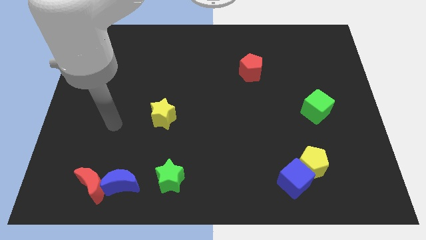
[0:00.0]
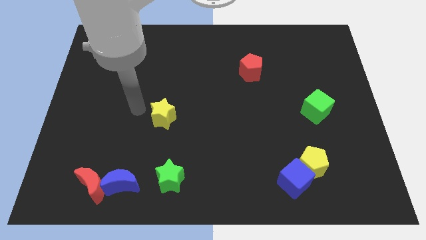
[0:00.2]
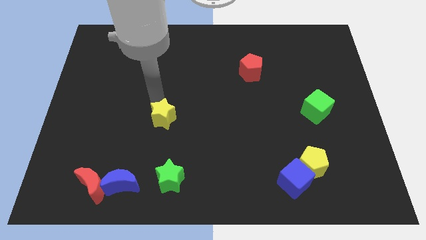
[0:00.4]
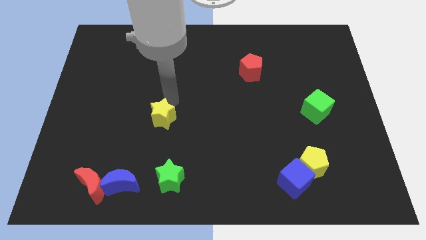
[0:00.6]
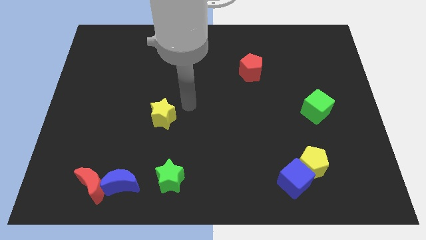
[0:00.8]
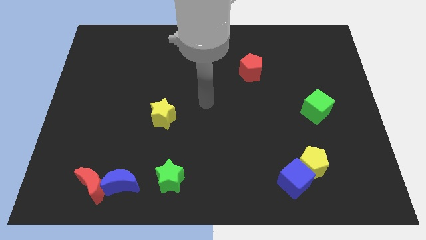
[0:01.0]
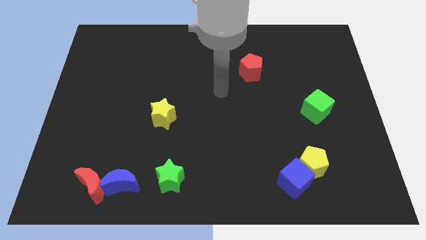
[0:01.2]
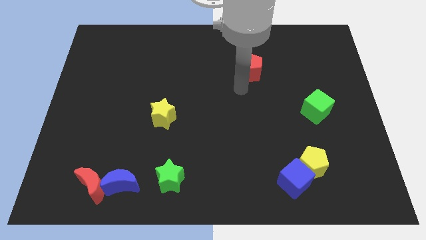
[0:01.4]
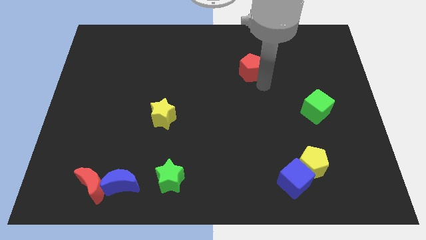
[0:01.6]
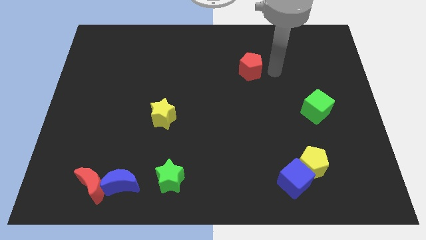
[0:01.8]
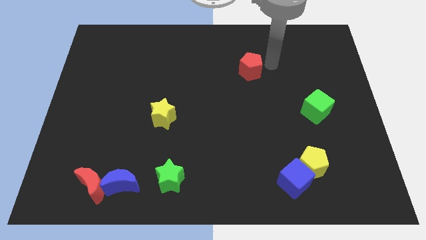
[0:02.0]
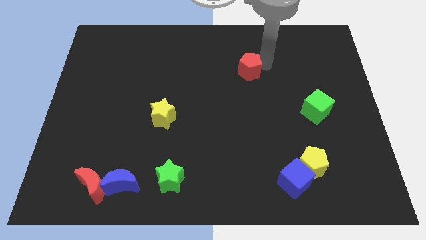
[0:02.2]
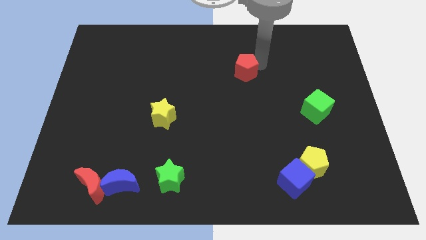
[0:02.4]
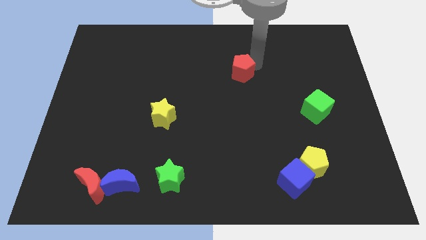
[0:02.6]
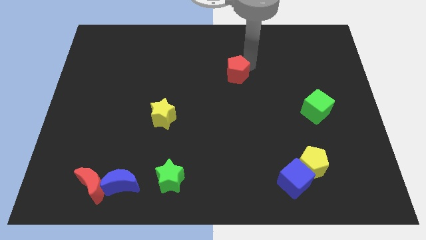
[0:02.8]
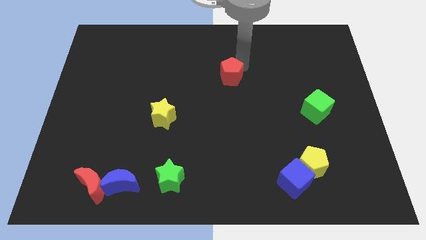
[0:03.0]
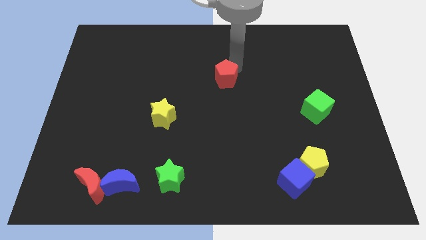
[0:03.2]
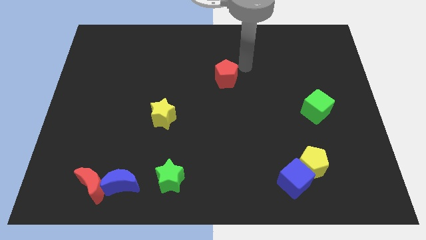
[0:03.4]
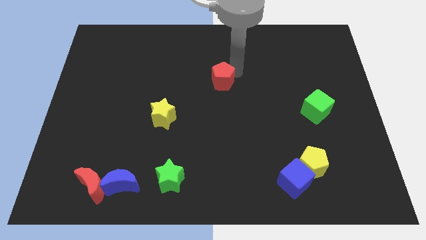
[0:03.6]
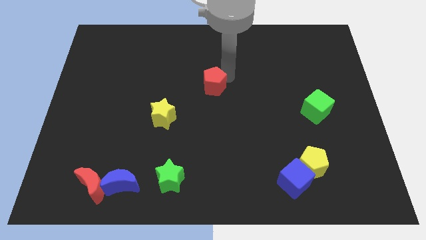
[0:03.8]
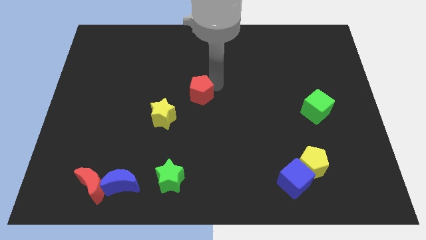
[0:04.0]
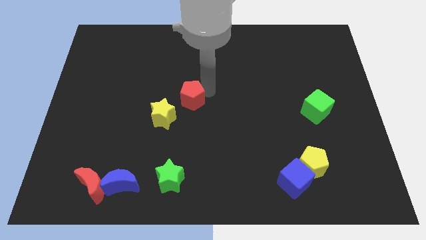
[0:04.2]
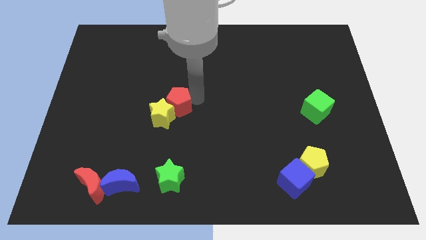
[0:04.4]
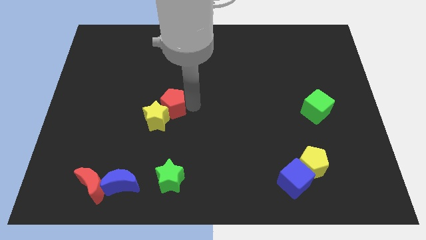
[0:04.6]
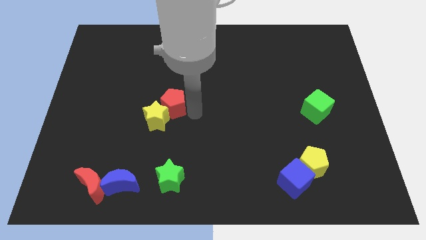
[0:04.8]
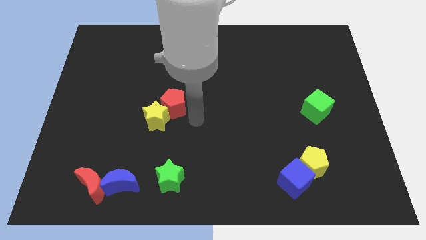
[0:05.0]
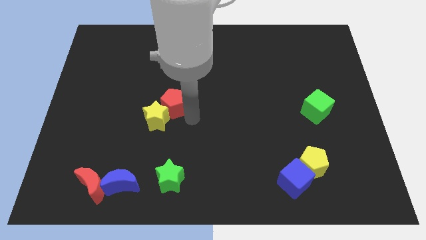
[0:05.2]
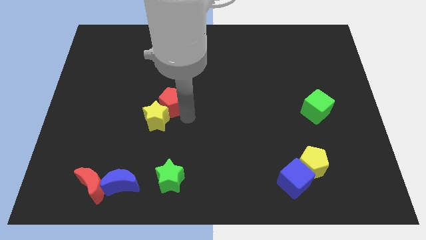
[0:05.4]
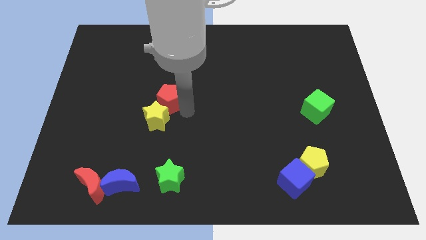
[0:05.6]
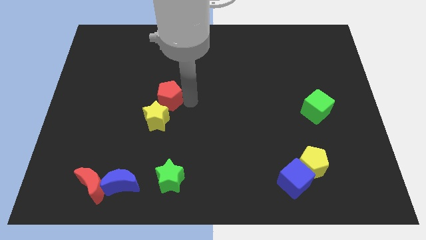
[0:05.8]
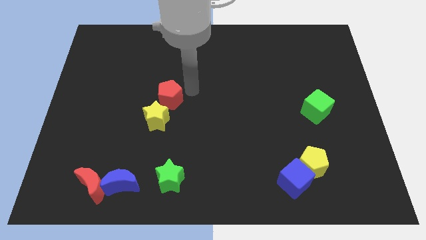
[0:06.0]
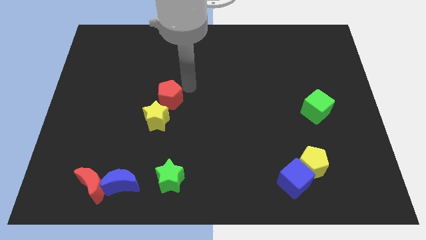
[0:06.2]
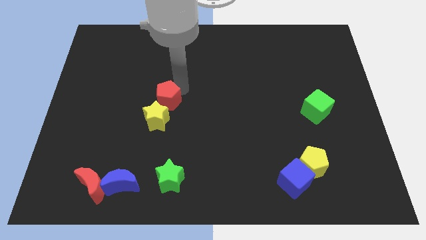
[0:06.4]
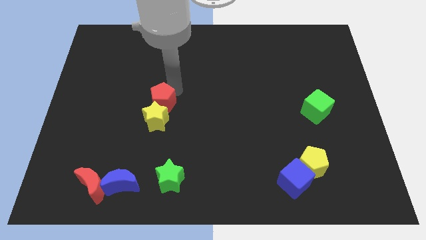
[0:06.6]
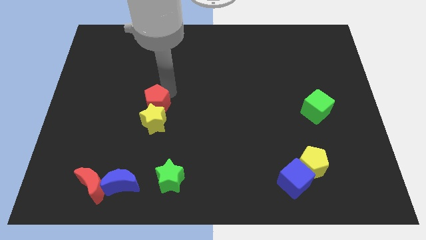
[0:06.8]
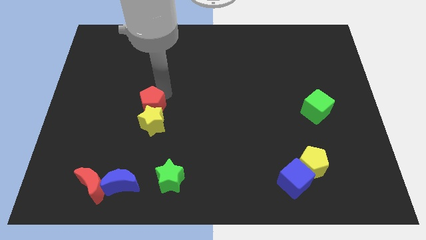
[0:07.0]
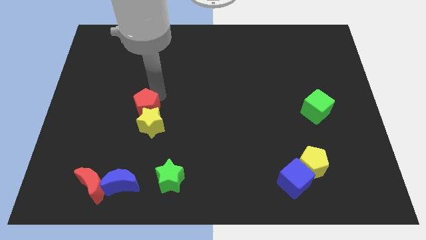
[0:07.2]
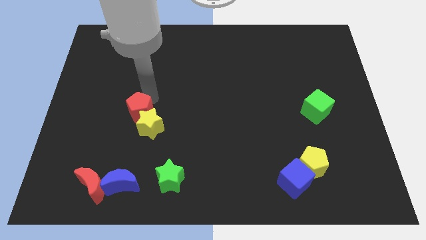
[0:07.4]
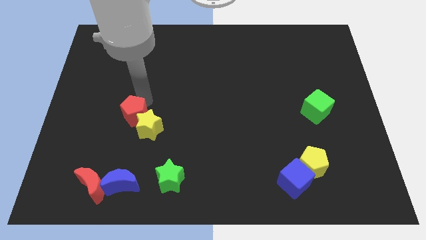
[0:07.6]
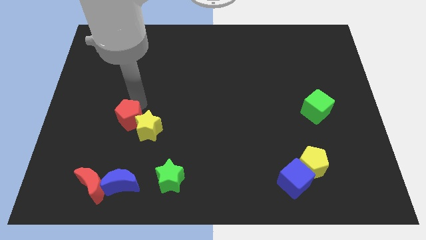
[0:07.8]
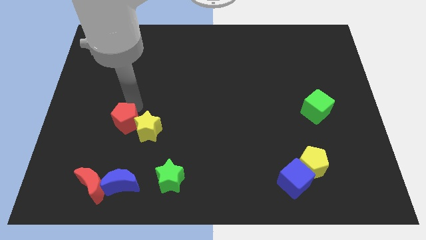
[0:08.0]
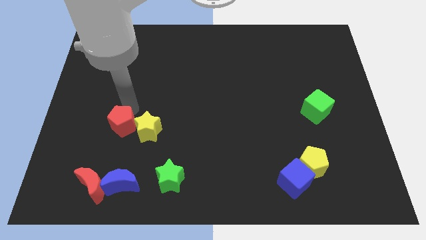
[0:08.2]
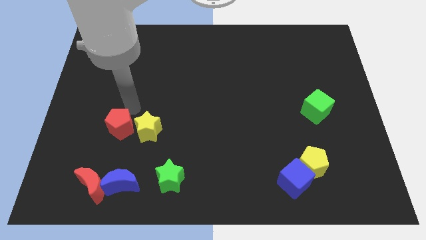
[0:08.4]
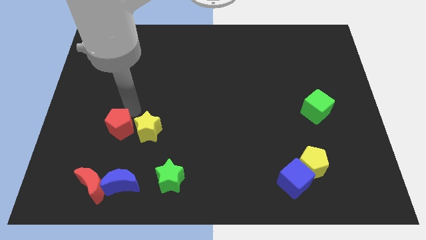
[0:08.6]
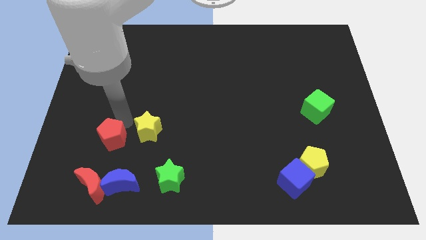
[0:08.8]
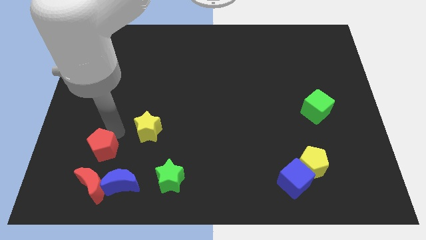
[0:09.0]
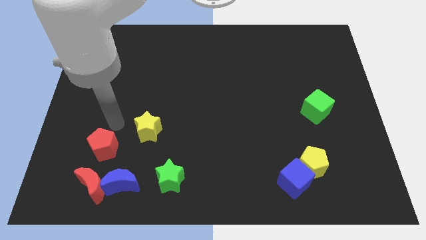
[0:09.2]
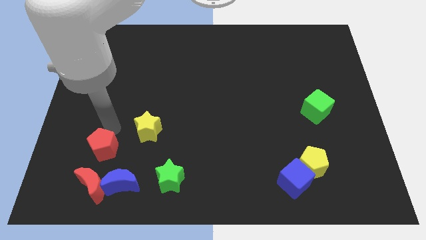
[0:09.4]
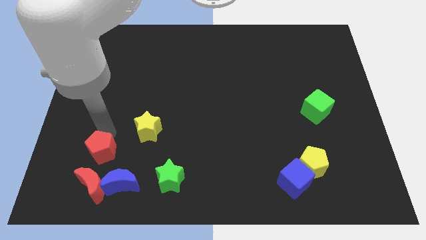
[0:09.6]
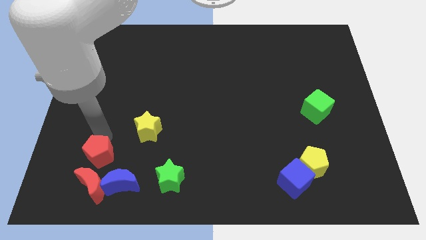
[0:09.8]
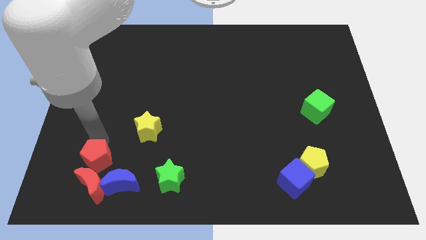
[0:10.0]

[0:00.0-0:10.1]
push the red pentagon to the red moon

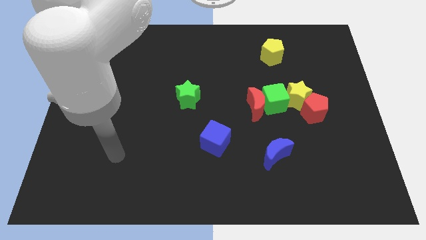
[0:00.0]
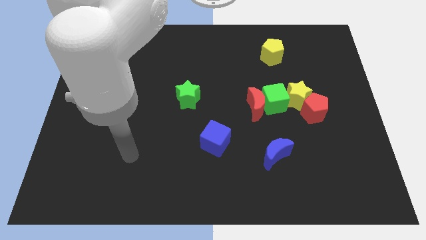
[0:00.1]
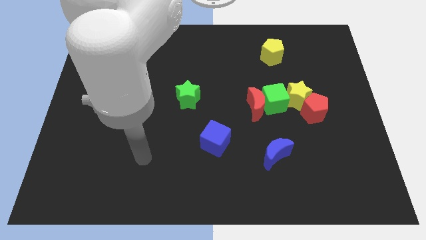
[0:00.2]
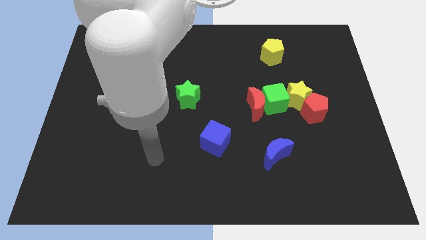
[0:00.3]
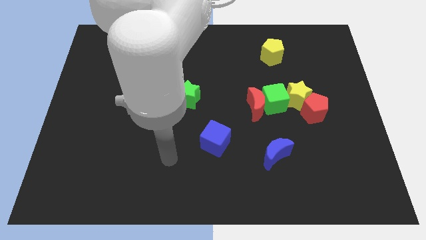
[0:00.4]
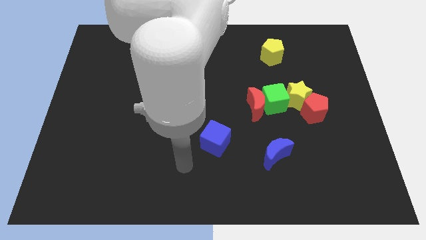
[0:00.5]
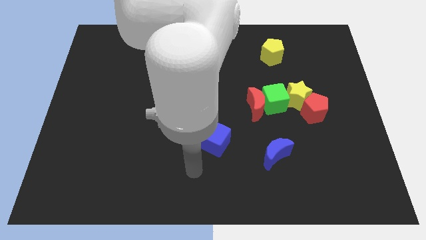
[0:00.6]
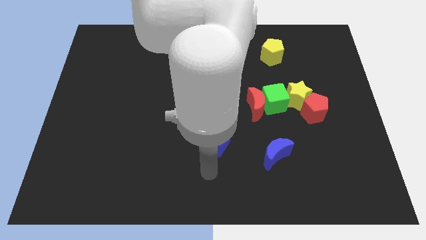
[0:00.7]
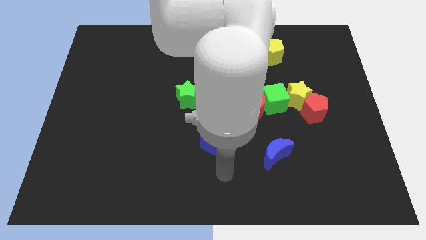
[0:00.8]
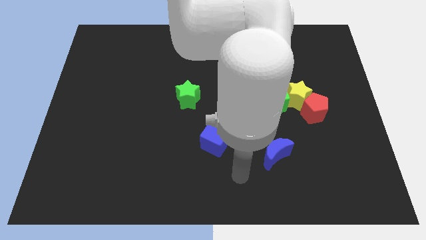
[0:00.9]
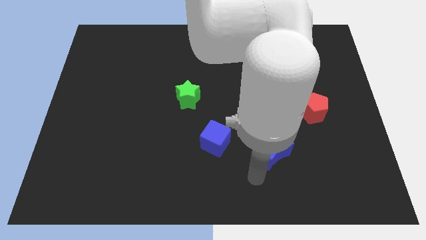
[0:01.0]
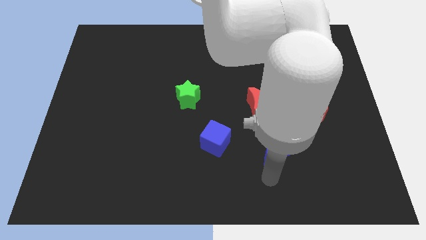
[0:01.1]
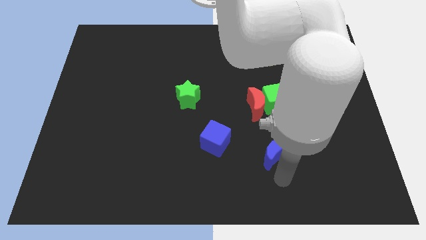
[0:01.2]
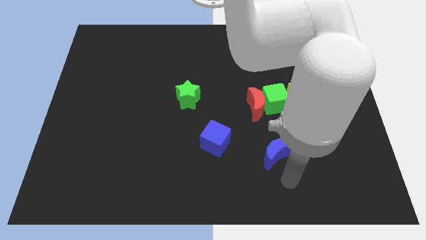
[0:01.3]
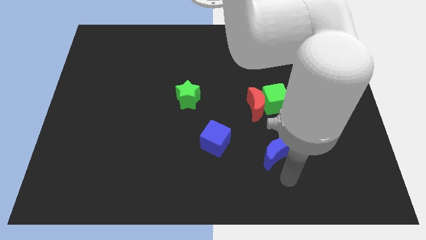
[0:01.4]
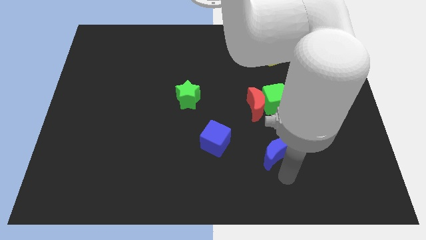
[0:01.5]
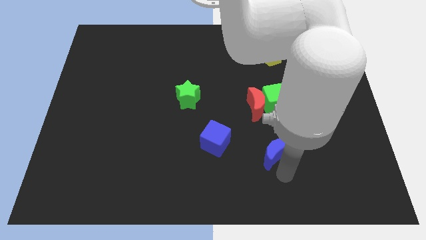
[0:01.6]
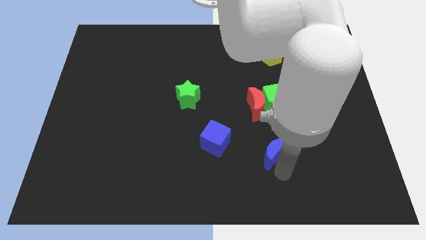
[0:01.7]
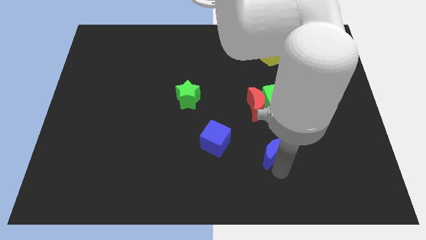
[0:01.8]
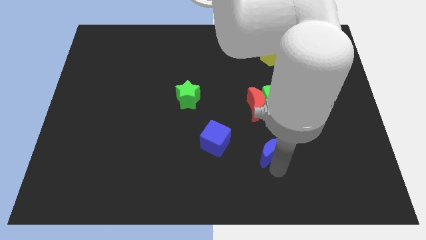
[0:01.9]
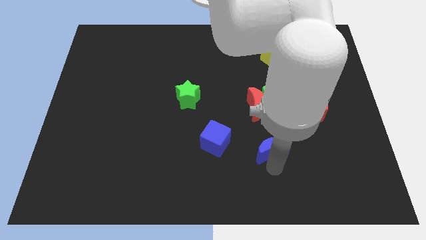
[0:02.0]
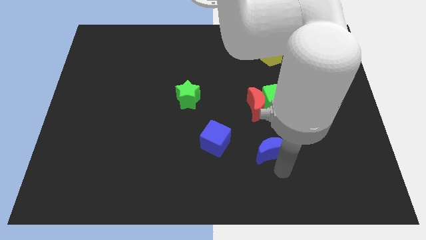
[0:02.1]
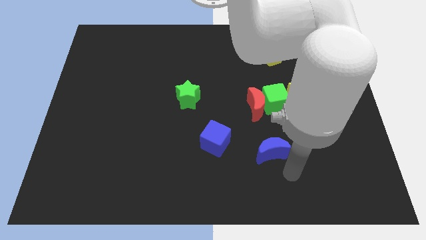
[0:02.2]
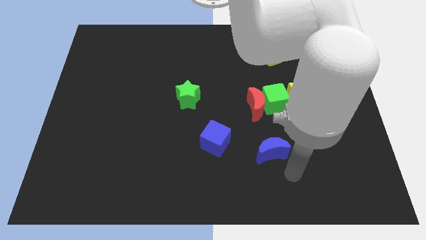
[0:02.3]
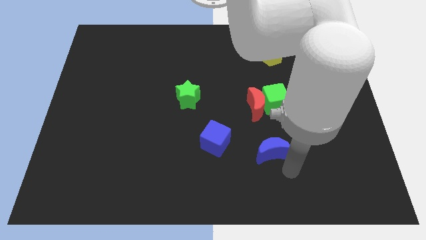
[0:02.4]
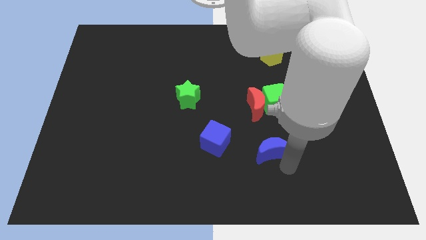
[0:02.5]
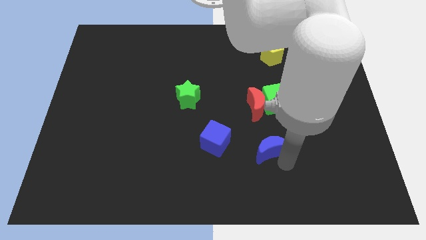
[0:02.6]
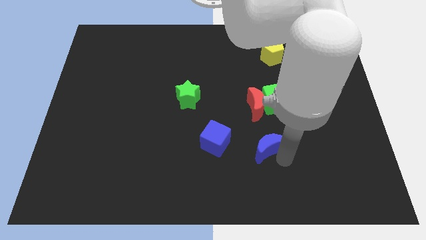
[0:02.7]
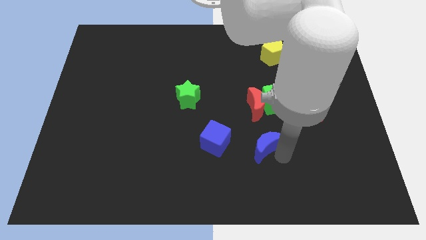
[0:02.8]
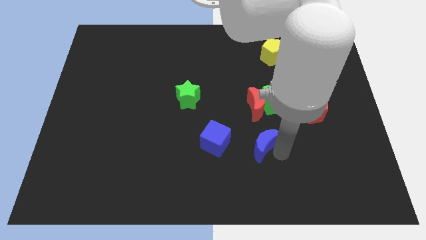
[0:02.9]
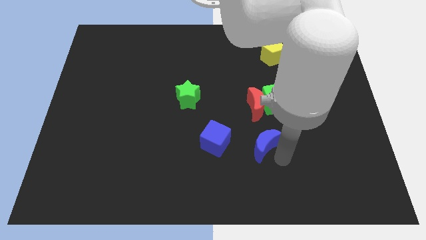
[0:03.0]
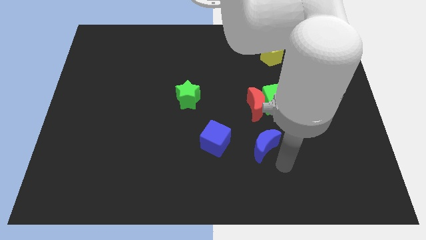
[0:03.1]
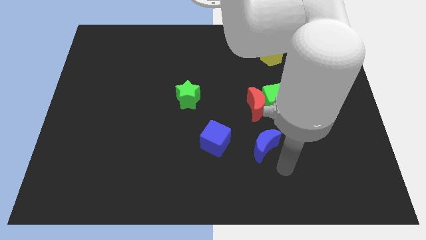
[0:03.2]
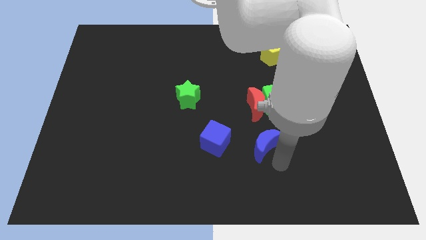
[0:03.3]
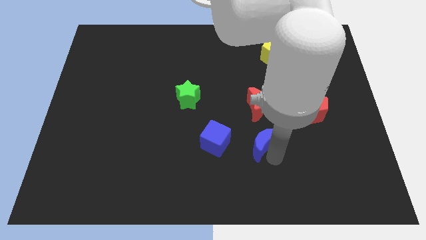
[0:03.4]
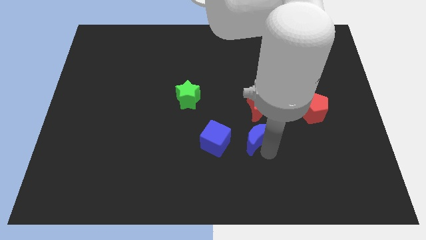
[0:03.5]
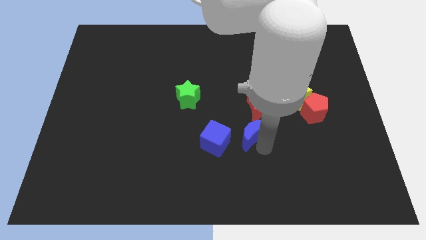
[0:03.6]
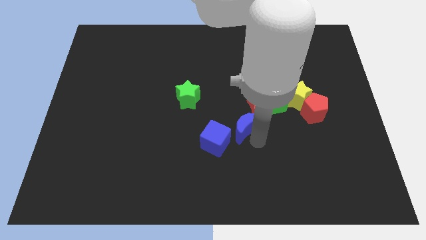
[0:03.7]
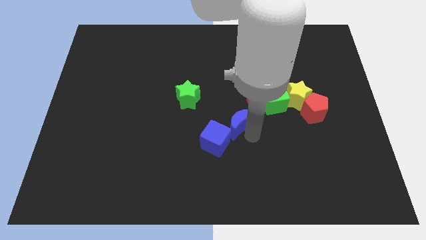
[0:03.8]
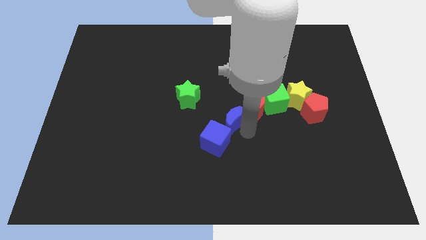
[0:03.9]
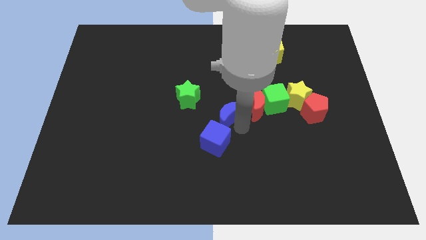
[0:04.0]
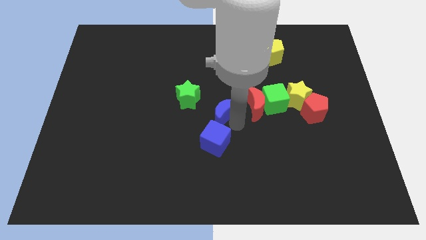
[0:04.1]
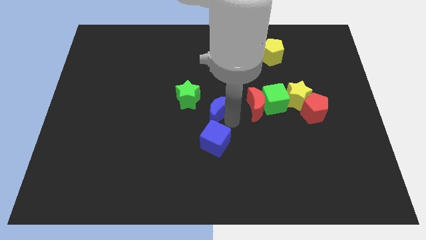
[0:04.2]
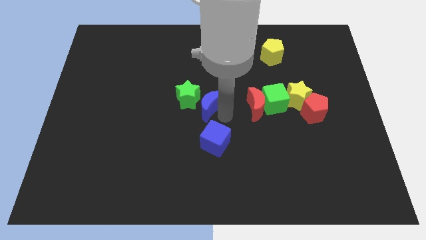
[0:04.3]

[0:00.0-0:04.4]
push the blue moon towards the green star
